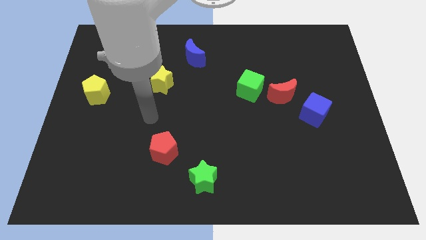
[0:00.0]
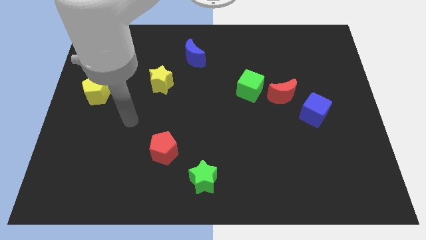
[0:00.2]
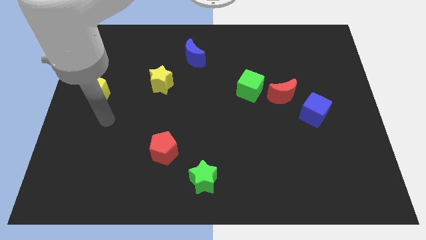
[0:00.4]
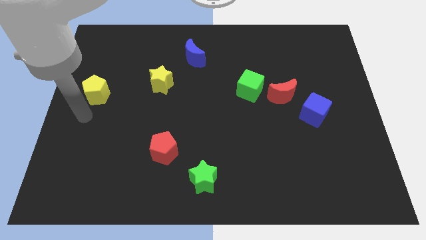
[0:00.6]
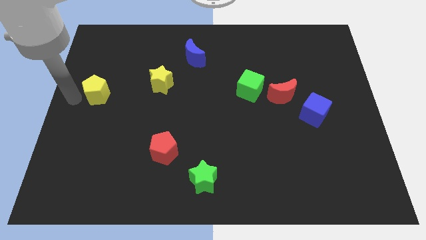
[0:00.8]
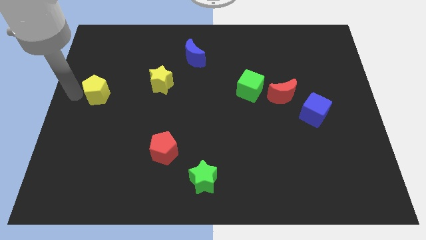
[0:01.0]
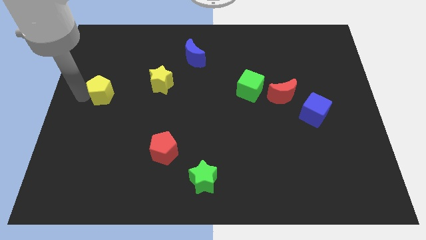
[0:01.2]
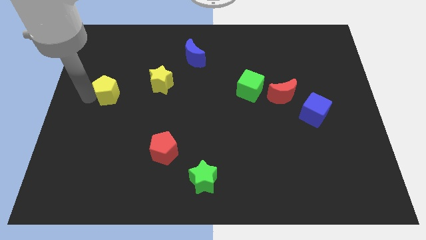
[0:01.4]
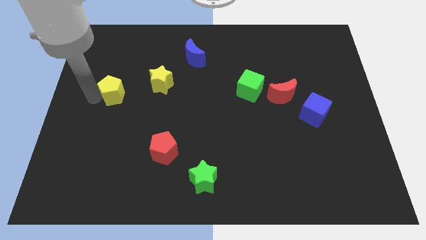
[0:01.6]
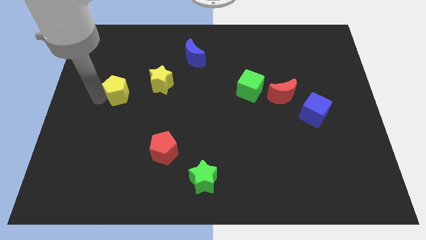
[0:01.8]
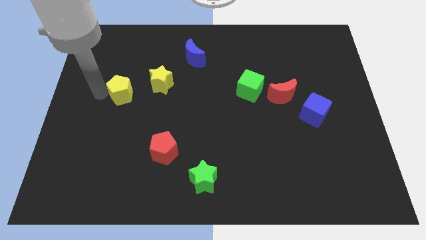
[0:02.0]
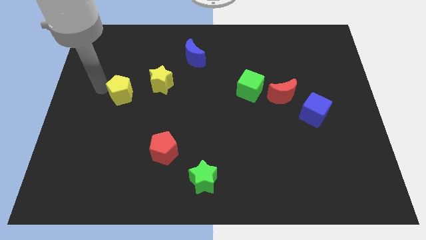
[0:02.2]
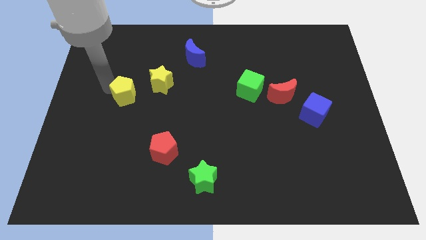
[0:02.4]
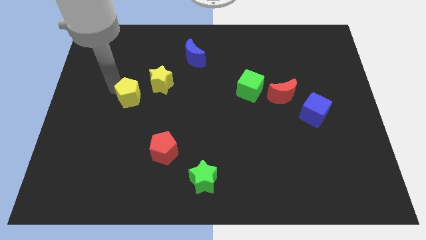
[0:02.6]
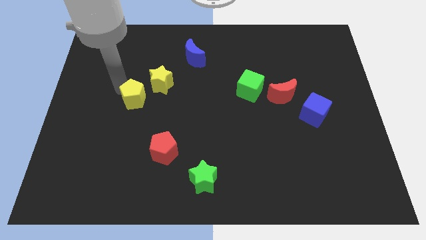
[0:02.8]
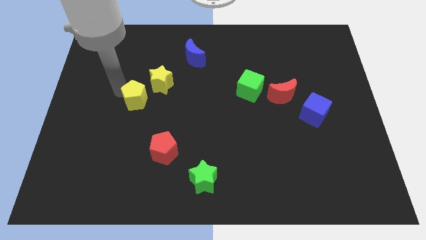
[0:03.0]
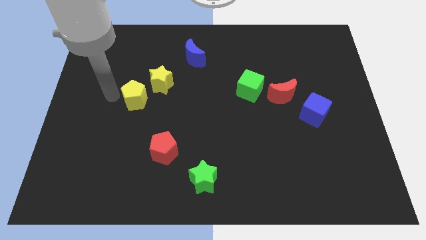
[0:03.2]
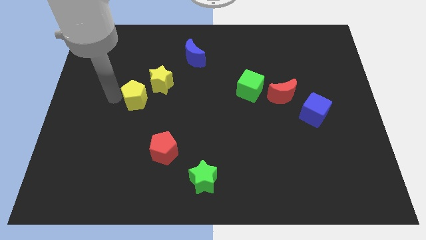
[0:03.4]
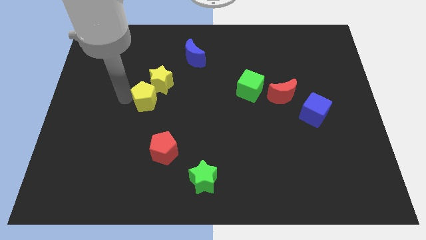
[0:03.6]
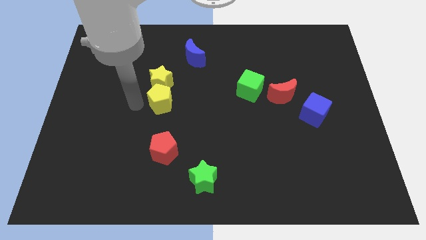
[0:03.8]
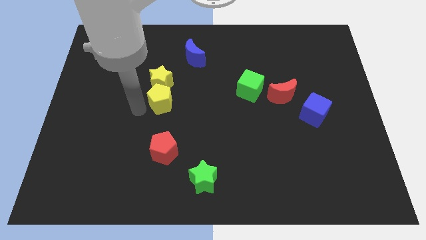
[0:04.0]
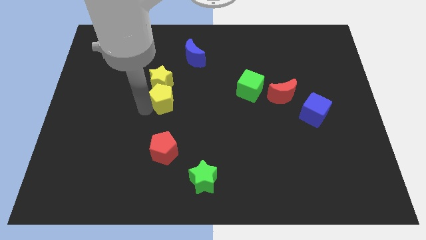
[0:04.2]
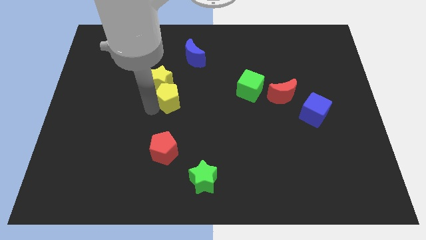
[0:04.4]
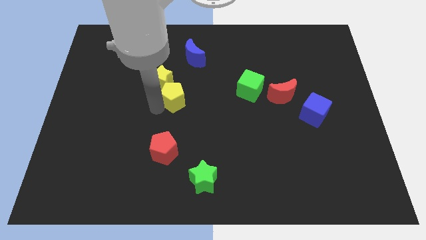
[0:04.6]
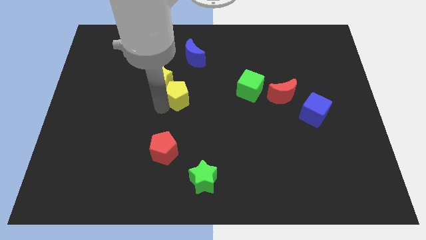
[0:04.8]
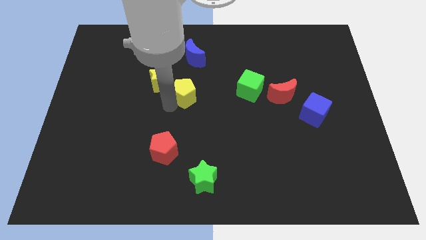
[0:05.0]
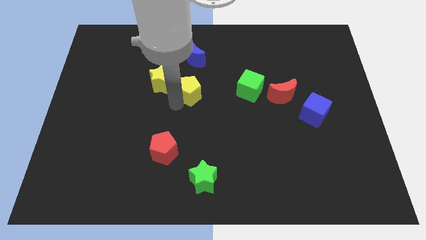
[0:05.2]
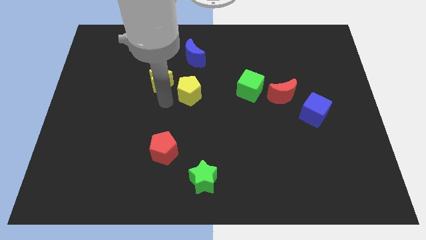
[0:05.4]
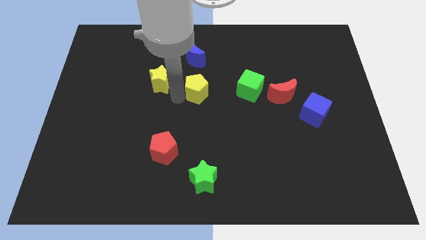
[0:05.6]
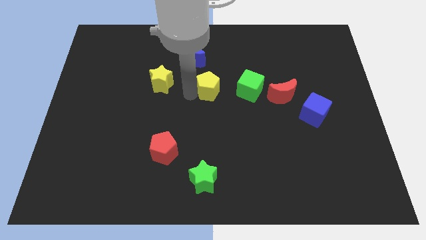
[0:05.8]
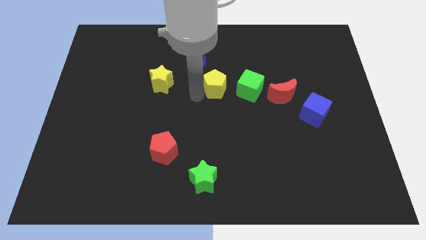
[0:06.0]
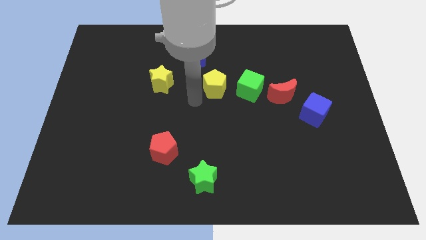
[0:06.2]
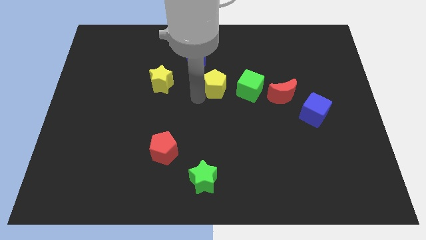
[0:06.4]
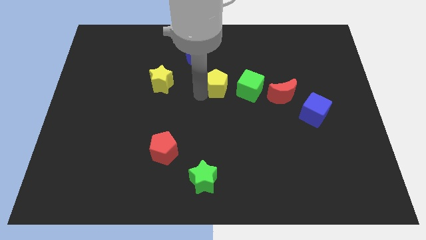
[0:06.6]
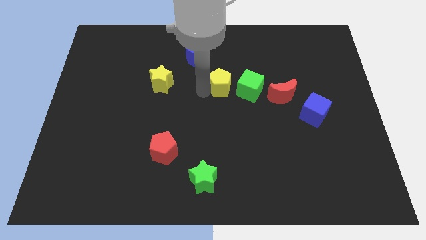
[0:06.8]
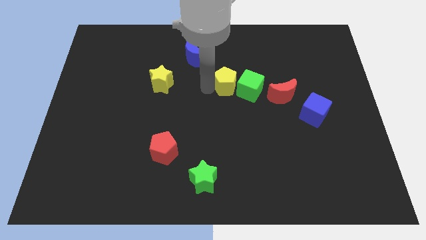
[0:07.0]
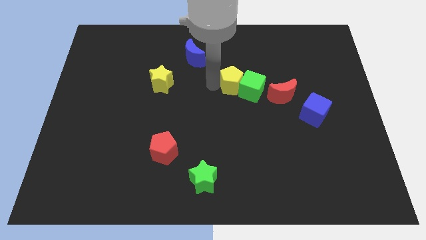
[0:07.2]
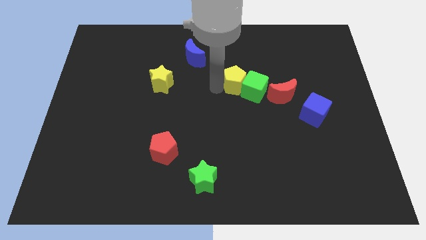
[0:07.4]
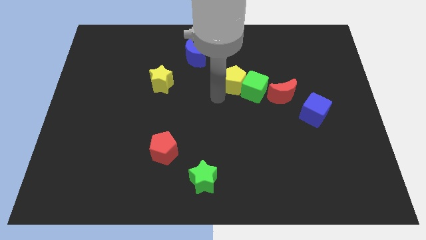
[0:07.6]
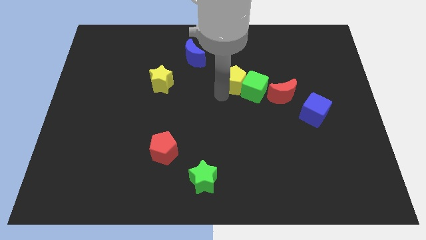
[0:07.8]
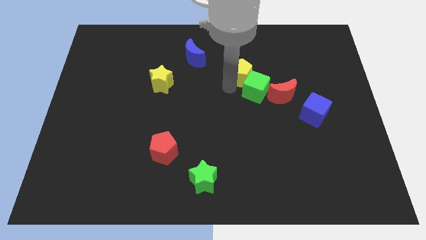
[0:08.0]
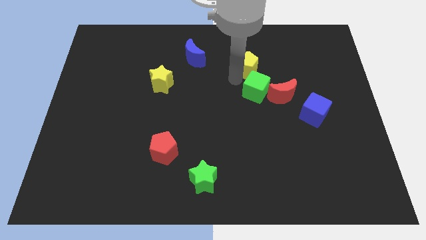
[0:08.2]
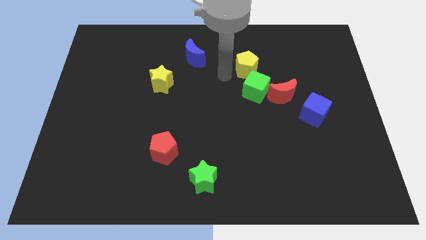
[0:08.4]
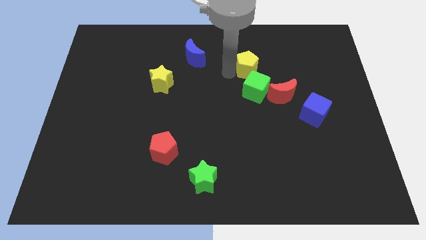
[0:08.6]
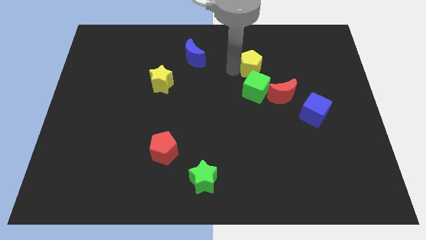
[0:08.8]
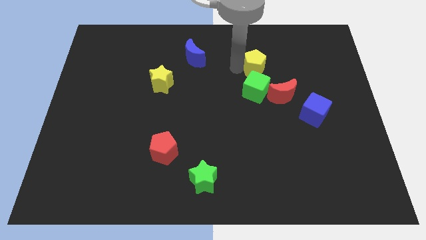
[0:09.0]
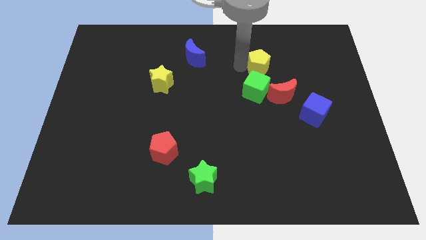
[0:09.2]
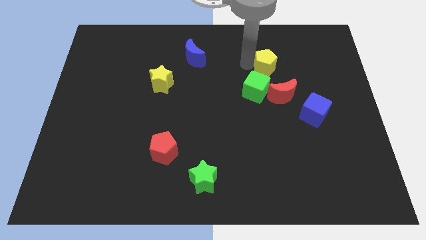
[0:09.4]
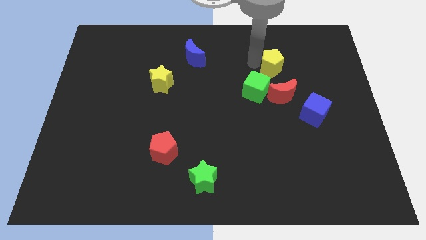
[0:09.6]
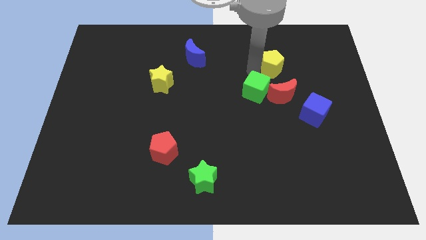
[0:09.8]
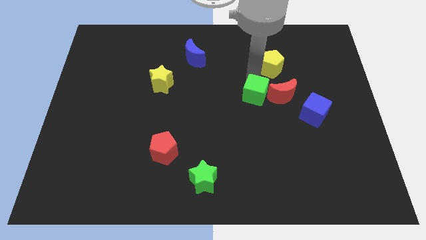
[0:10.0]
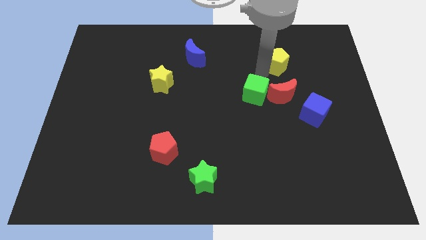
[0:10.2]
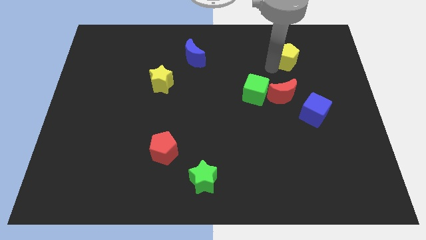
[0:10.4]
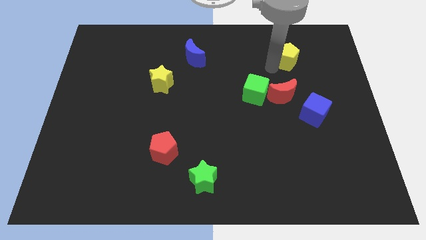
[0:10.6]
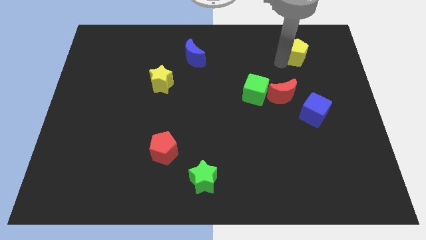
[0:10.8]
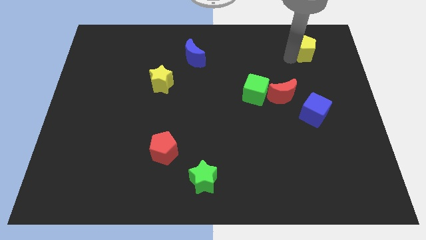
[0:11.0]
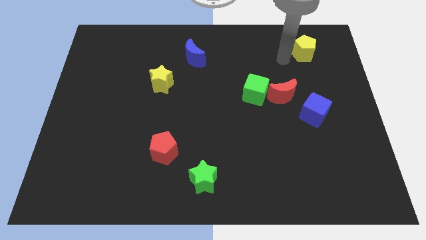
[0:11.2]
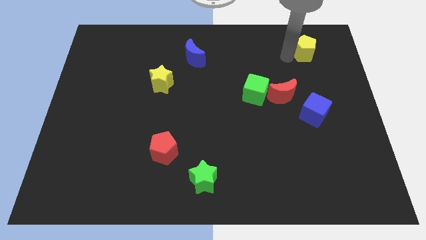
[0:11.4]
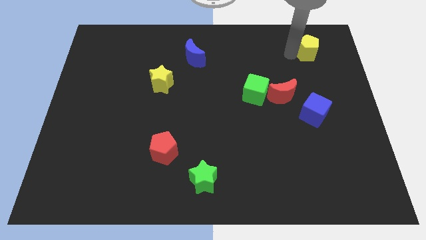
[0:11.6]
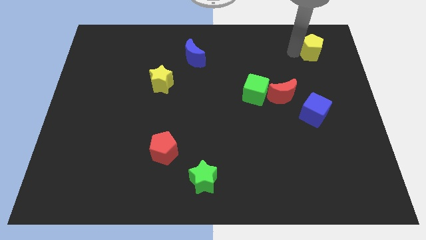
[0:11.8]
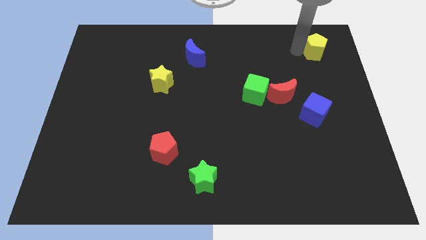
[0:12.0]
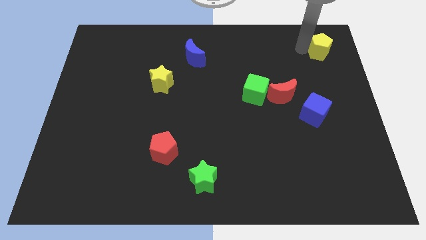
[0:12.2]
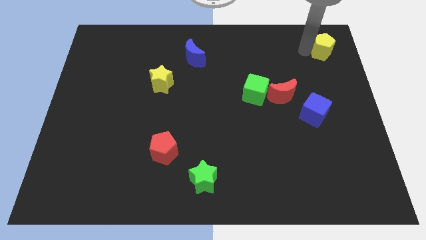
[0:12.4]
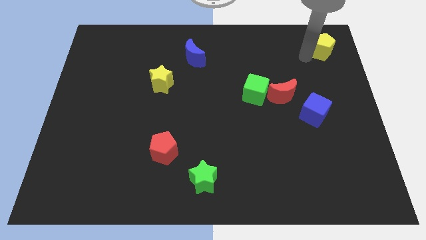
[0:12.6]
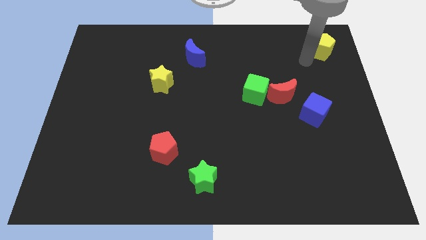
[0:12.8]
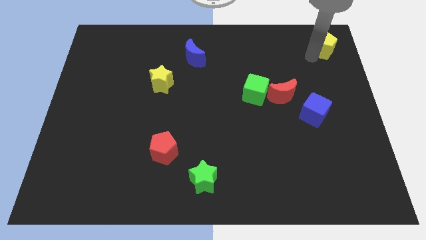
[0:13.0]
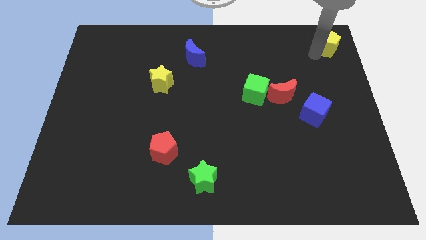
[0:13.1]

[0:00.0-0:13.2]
move the yellow pentagon to the top right
